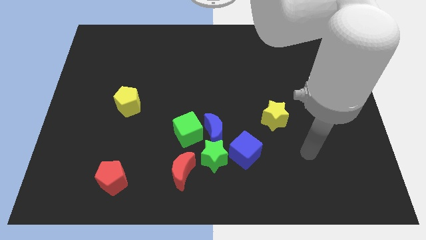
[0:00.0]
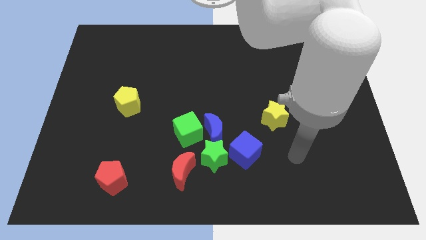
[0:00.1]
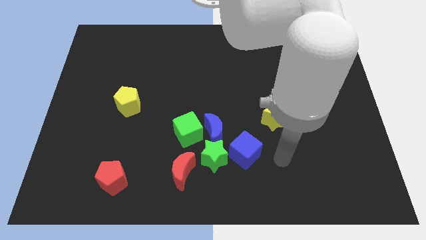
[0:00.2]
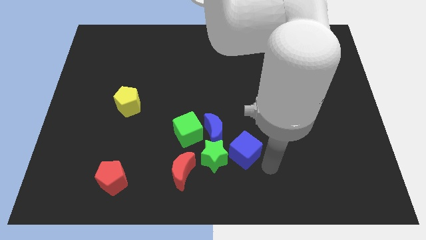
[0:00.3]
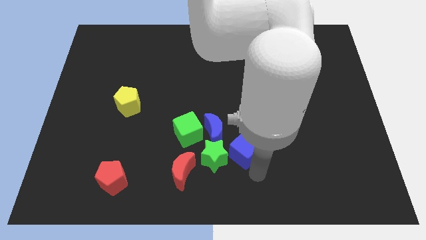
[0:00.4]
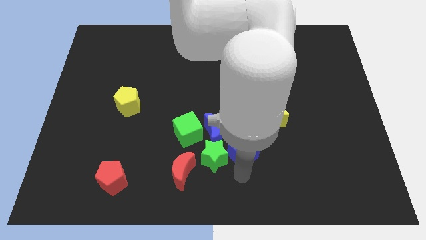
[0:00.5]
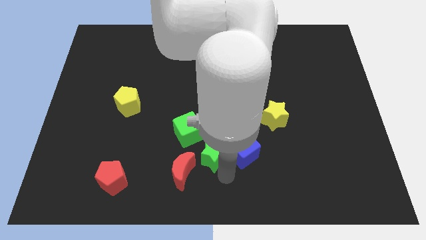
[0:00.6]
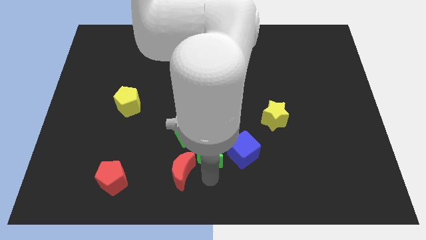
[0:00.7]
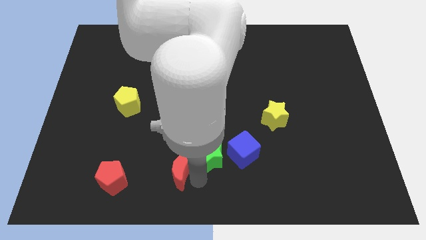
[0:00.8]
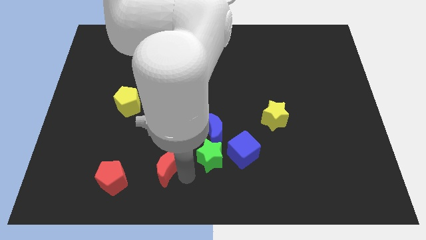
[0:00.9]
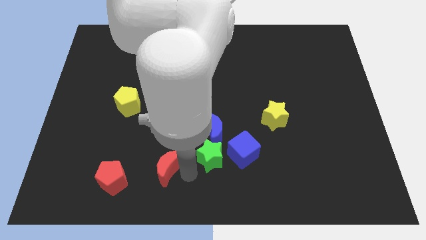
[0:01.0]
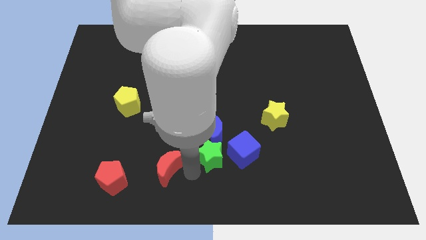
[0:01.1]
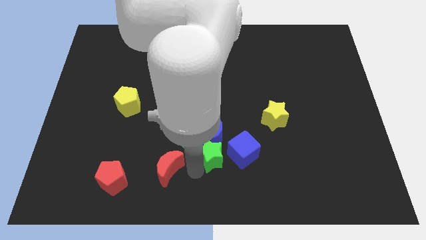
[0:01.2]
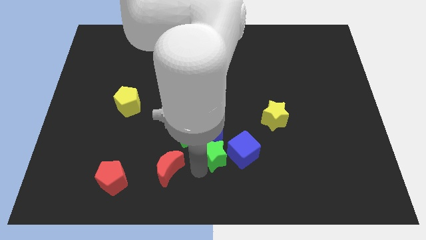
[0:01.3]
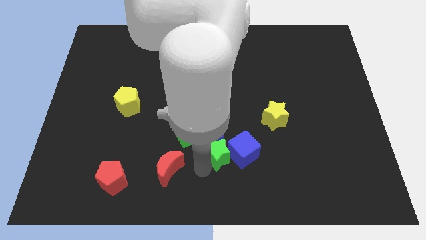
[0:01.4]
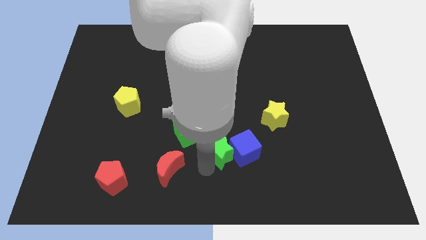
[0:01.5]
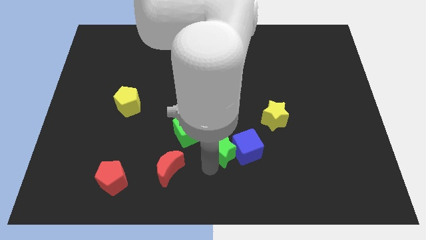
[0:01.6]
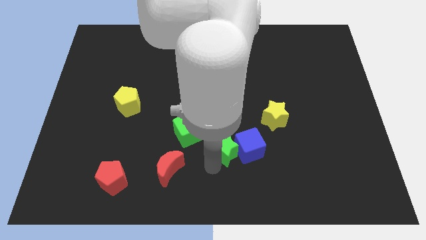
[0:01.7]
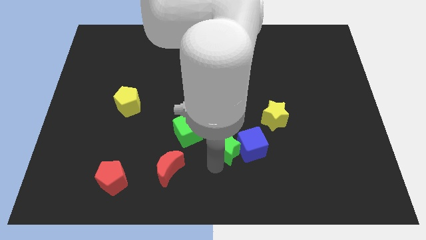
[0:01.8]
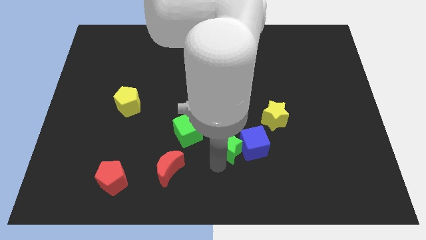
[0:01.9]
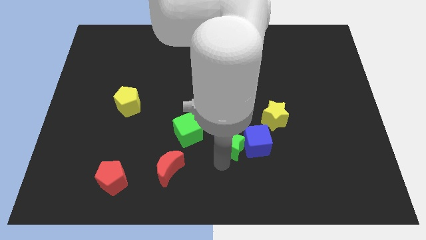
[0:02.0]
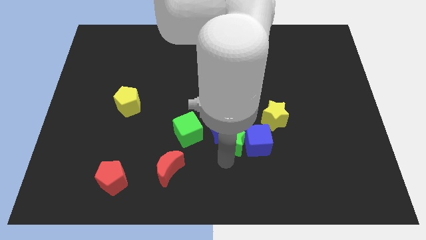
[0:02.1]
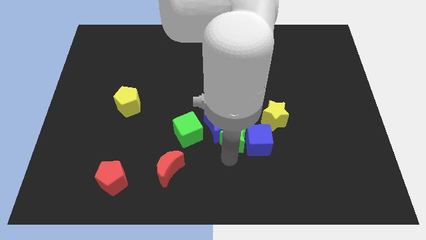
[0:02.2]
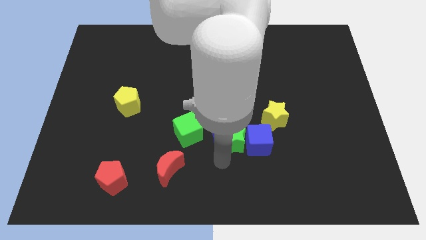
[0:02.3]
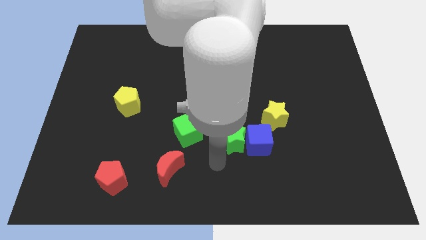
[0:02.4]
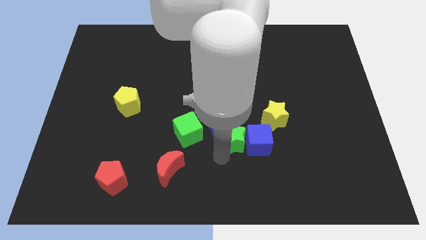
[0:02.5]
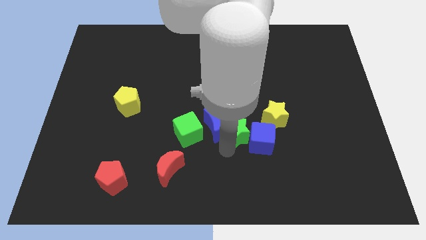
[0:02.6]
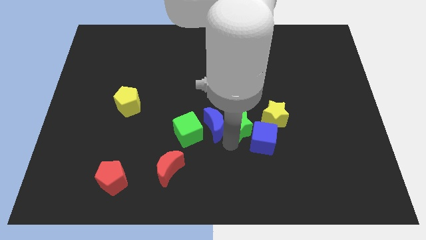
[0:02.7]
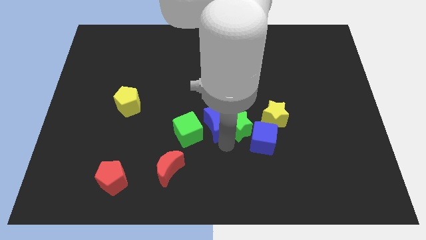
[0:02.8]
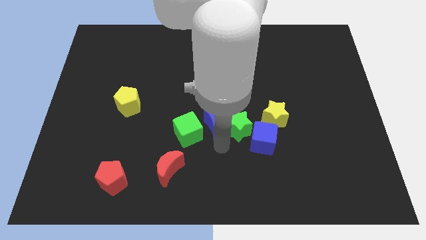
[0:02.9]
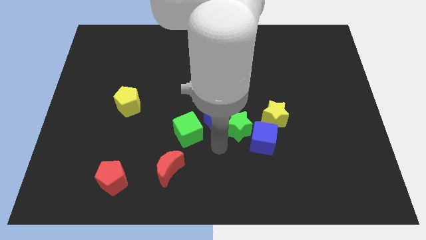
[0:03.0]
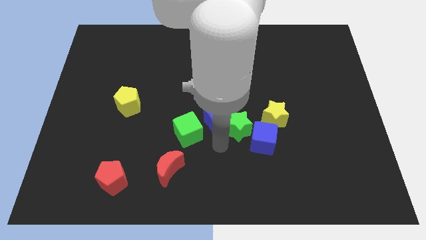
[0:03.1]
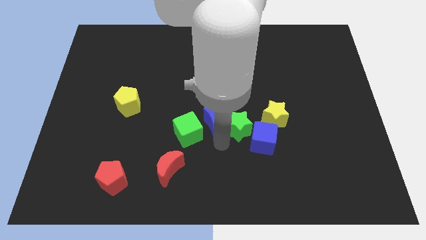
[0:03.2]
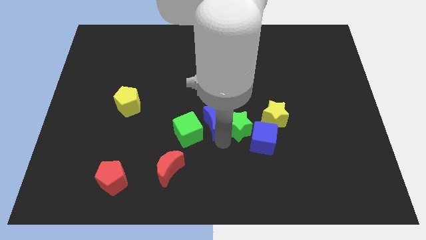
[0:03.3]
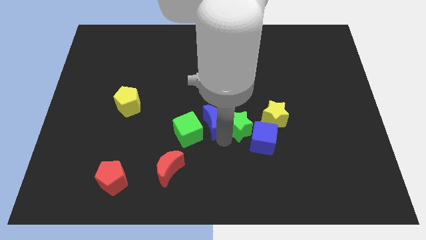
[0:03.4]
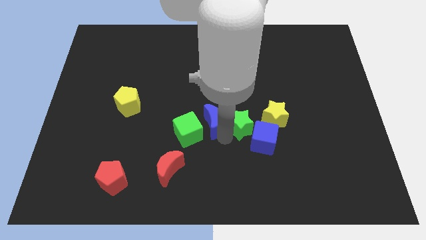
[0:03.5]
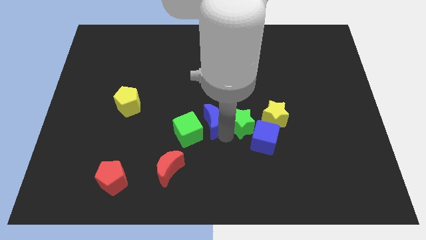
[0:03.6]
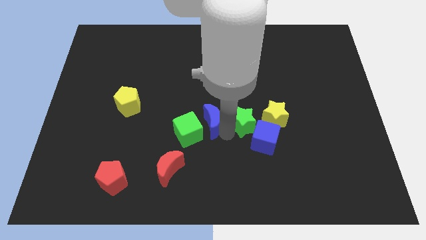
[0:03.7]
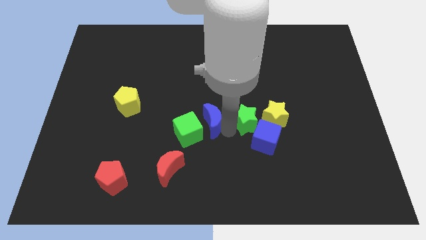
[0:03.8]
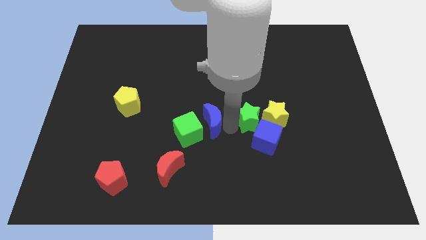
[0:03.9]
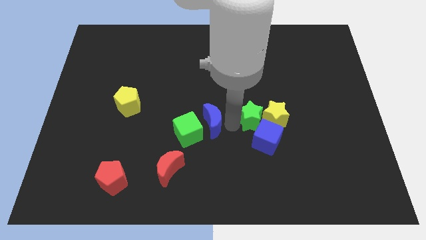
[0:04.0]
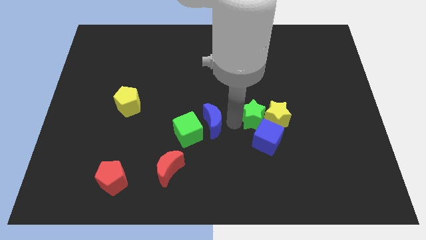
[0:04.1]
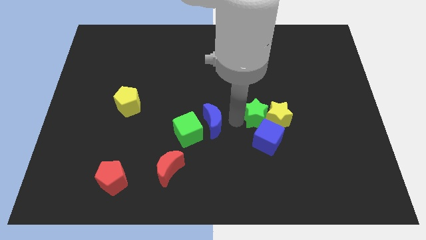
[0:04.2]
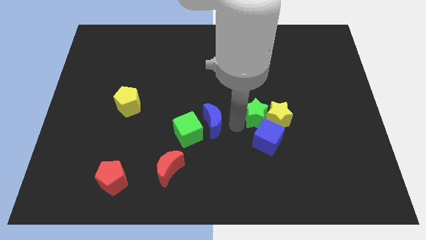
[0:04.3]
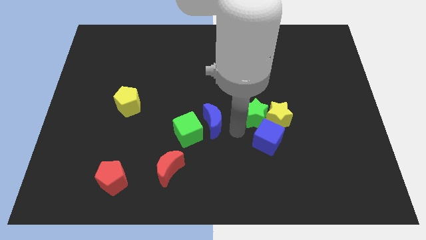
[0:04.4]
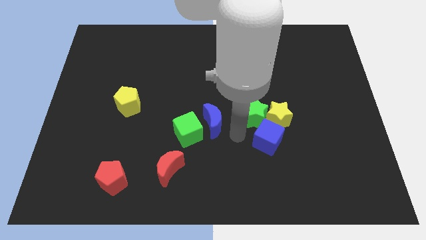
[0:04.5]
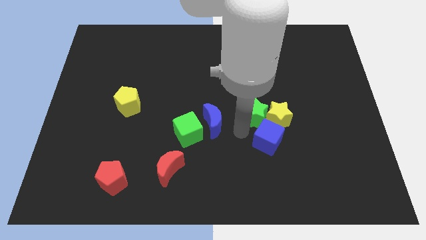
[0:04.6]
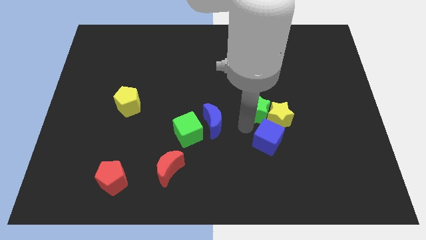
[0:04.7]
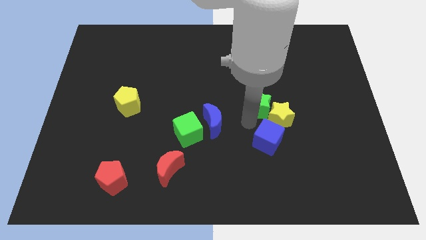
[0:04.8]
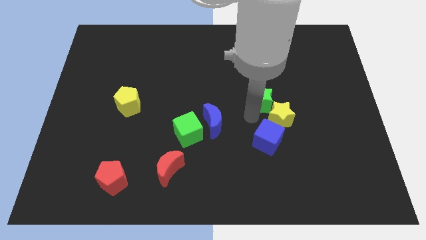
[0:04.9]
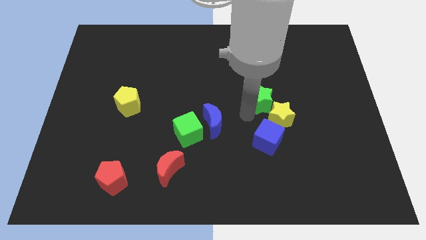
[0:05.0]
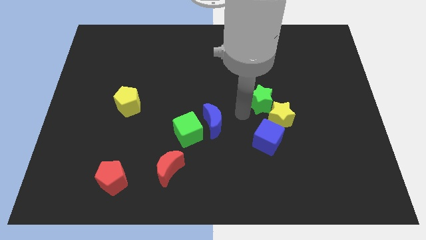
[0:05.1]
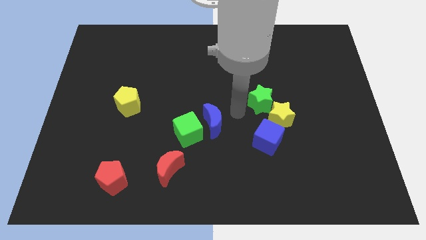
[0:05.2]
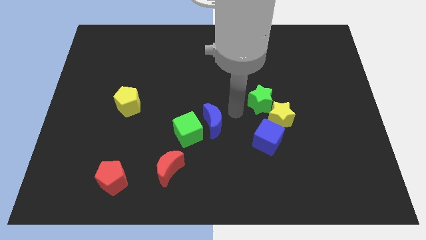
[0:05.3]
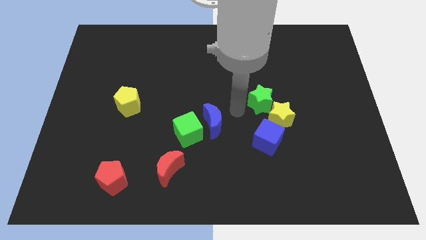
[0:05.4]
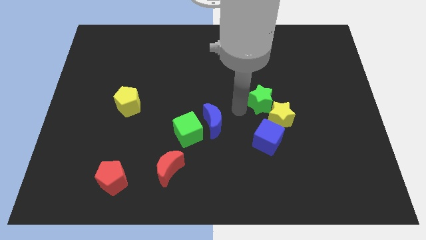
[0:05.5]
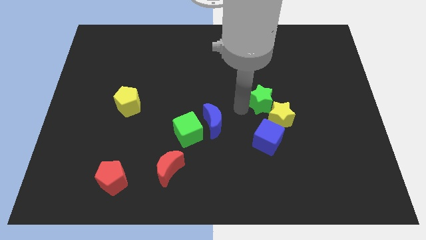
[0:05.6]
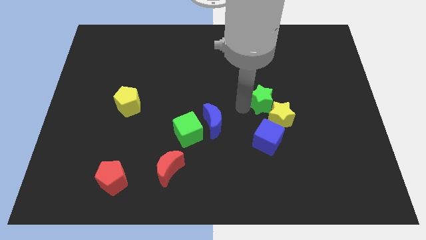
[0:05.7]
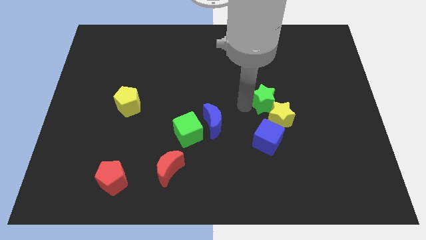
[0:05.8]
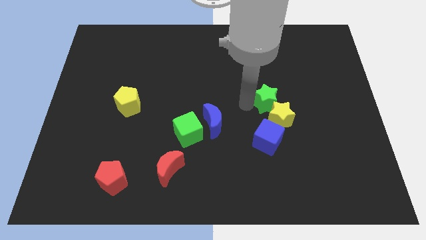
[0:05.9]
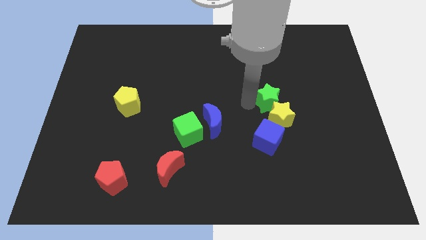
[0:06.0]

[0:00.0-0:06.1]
push the green star up and right diagonally

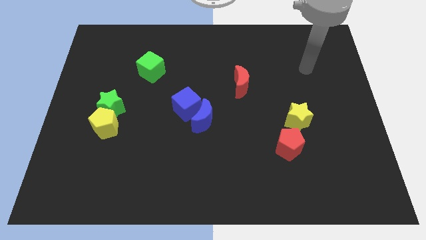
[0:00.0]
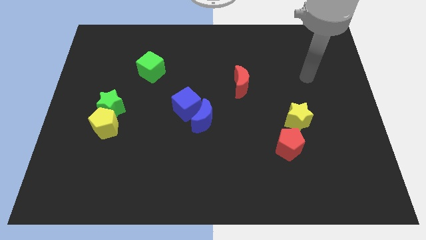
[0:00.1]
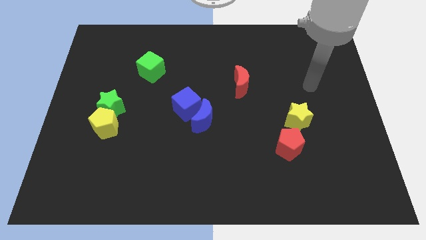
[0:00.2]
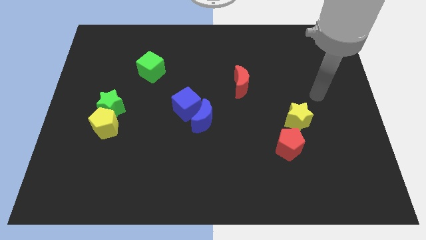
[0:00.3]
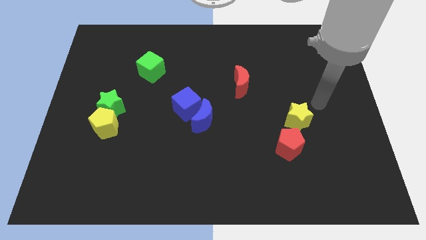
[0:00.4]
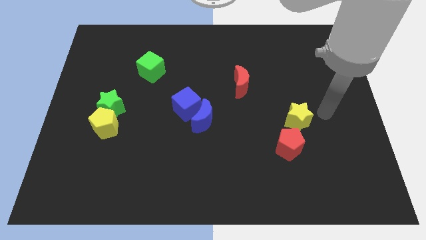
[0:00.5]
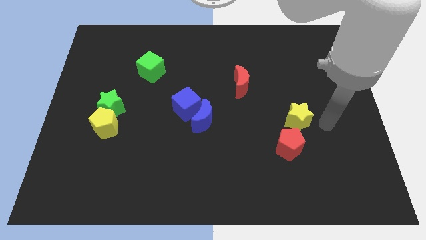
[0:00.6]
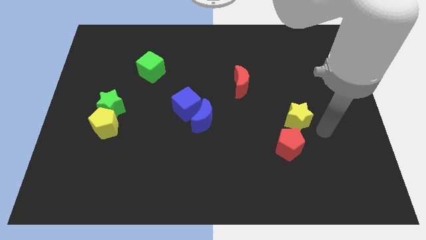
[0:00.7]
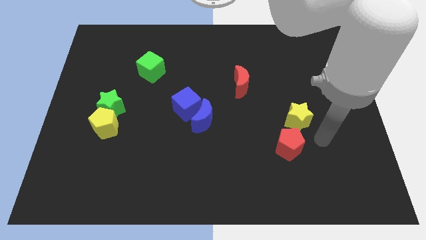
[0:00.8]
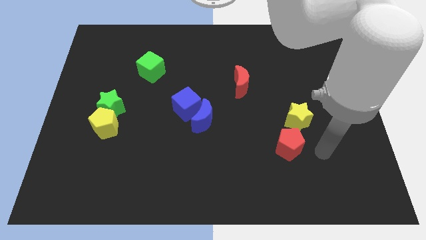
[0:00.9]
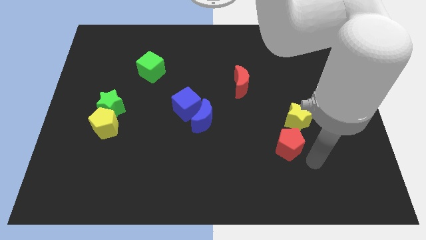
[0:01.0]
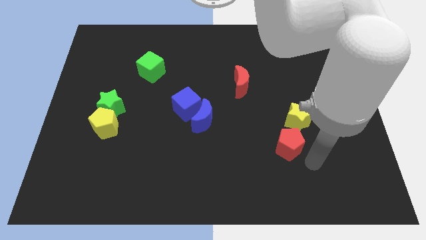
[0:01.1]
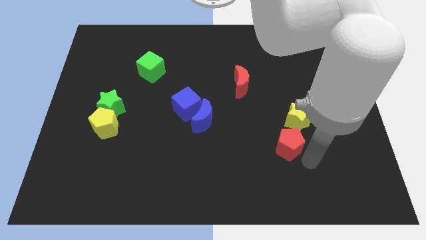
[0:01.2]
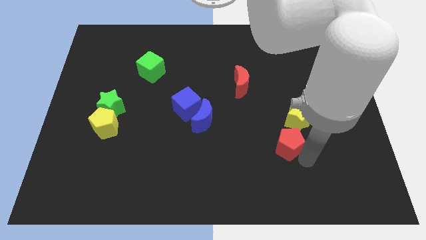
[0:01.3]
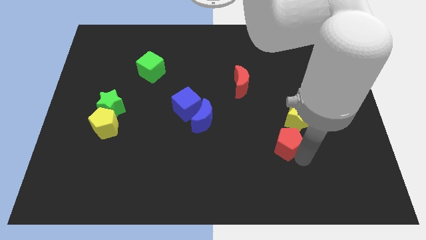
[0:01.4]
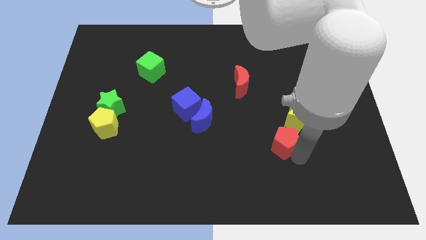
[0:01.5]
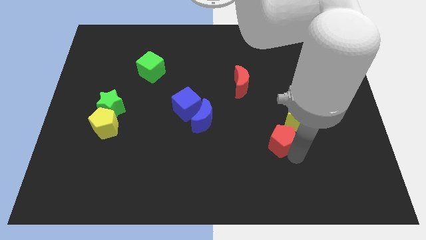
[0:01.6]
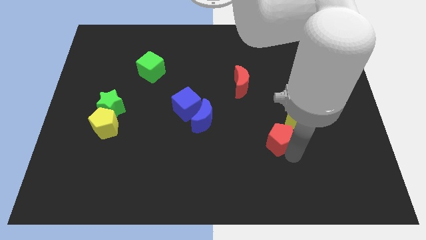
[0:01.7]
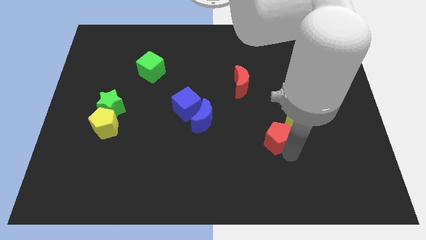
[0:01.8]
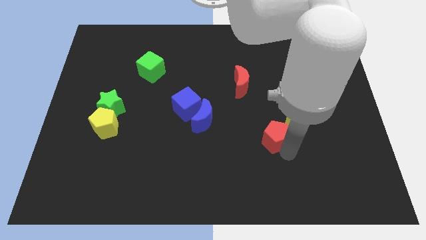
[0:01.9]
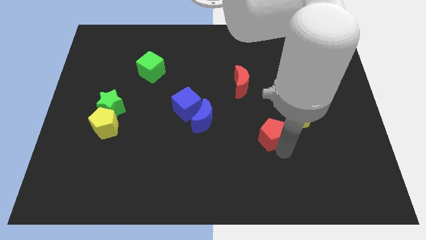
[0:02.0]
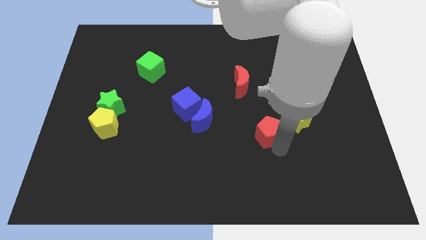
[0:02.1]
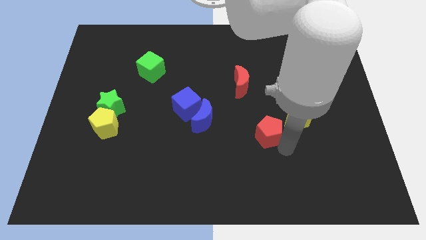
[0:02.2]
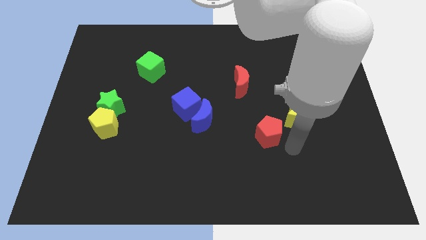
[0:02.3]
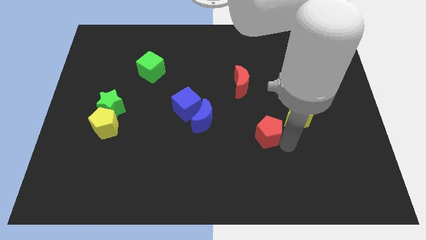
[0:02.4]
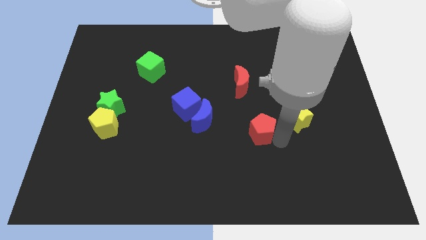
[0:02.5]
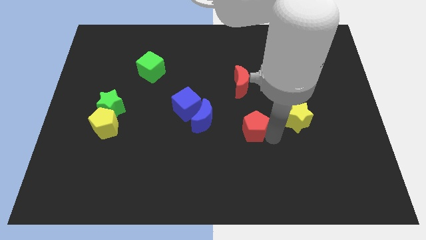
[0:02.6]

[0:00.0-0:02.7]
push the red pentagon somewhat up and to the left diagonally
